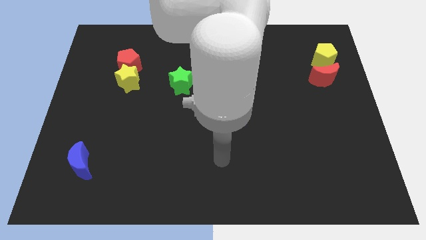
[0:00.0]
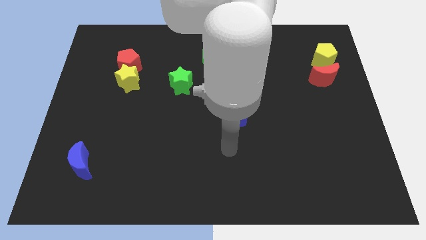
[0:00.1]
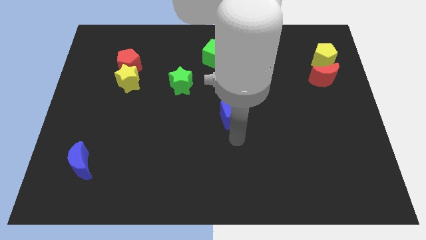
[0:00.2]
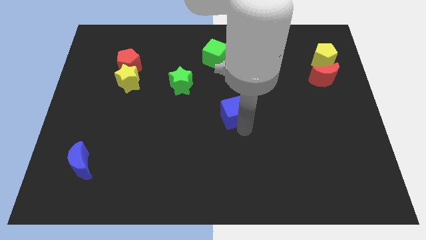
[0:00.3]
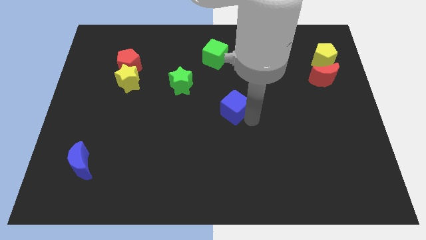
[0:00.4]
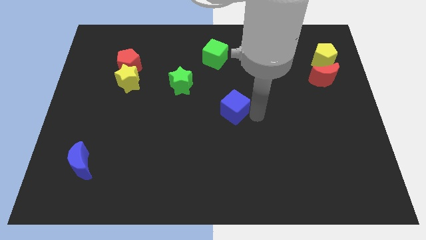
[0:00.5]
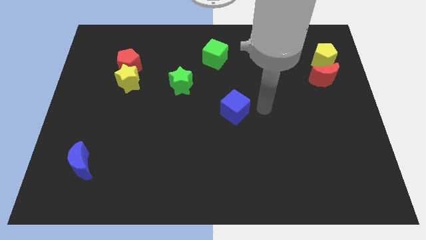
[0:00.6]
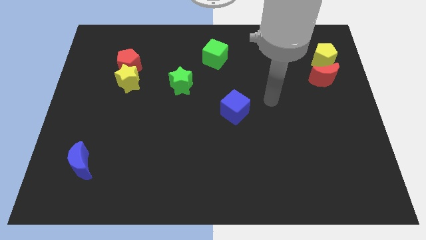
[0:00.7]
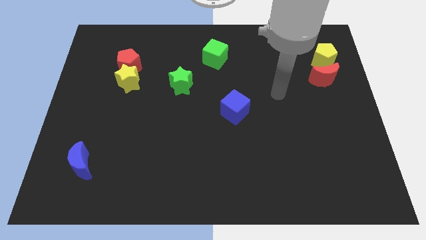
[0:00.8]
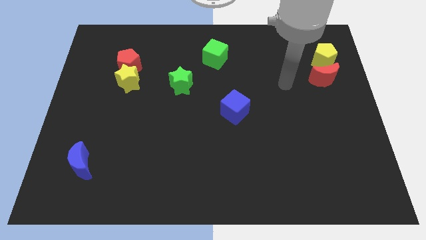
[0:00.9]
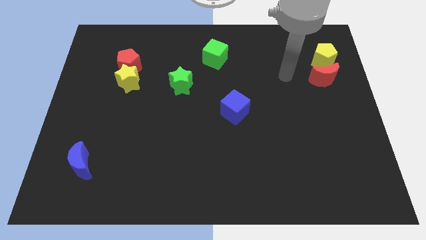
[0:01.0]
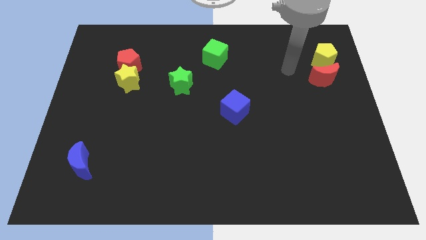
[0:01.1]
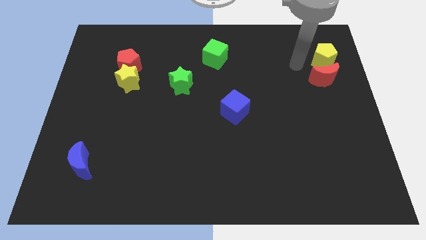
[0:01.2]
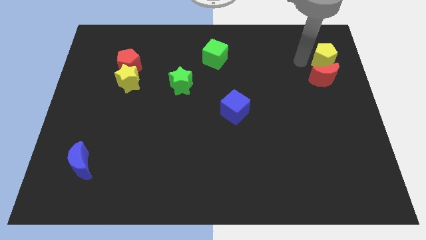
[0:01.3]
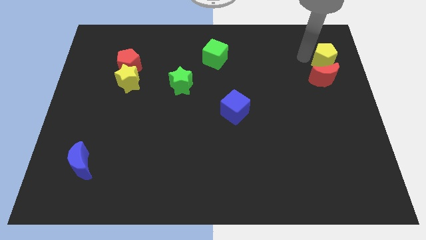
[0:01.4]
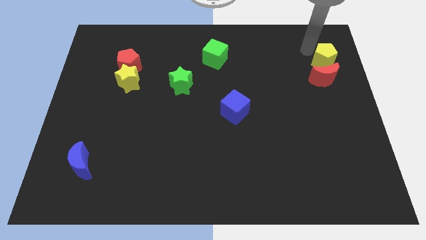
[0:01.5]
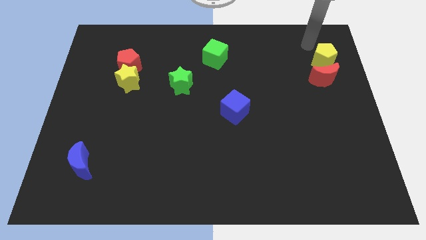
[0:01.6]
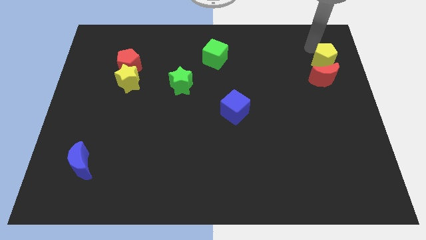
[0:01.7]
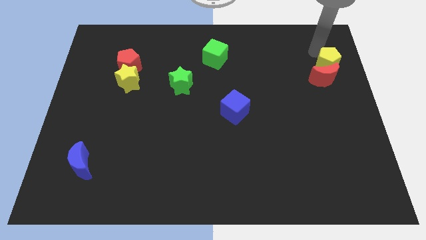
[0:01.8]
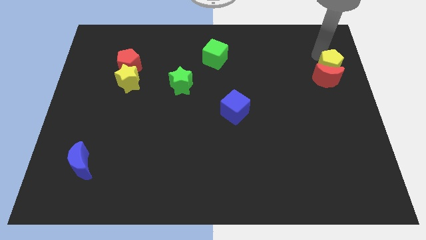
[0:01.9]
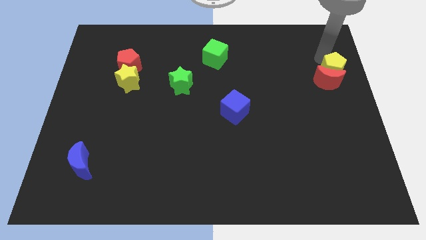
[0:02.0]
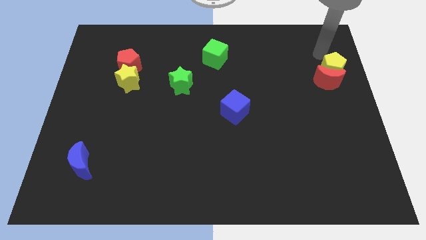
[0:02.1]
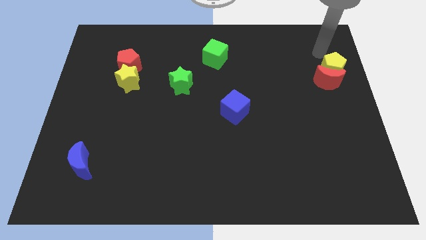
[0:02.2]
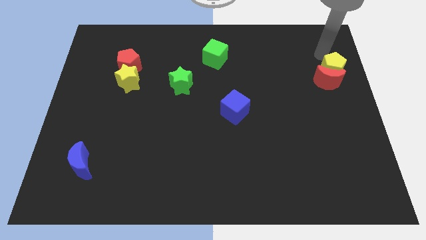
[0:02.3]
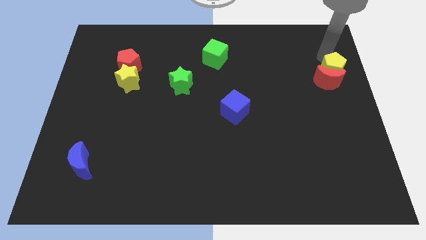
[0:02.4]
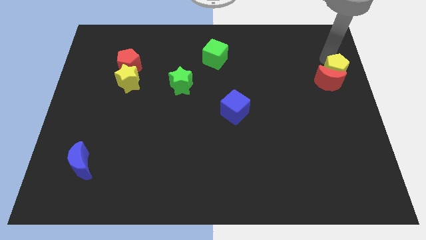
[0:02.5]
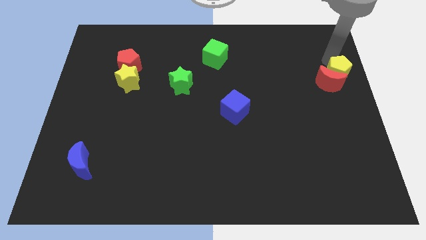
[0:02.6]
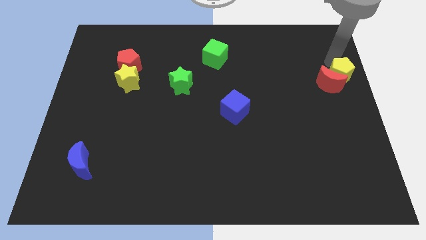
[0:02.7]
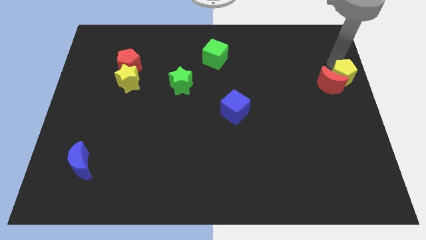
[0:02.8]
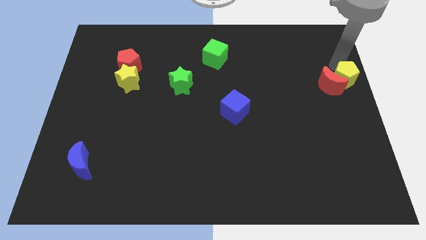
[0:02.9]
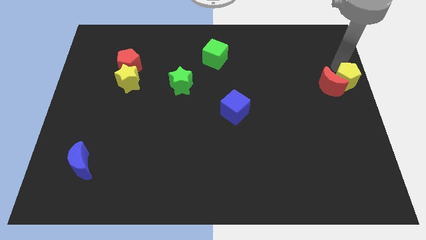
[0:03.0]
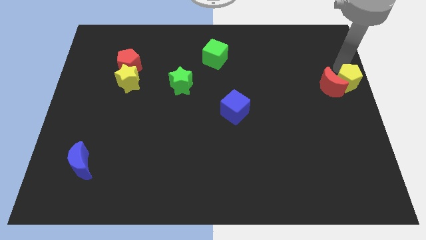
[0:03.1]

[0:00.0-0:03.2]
slightly push the yellow pentagon down

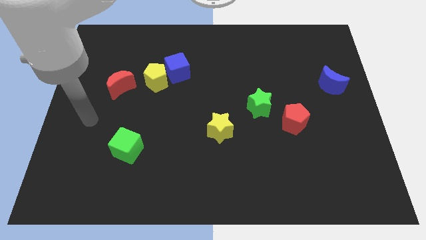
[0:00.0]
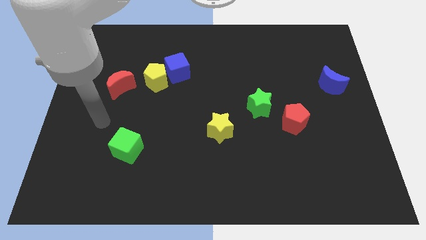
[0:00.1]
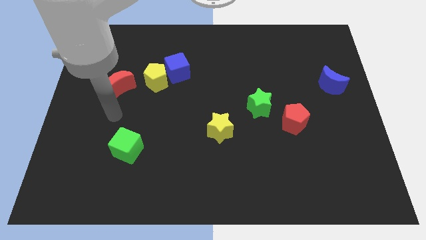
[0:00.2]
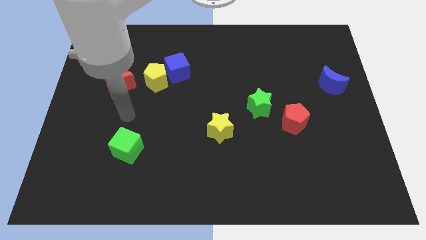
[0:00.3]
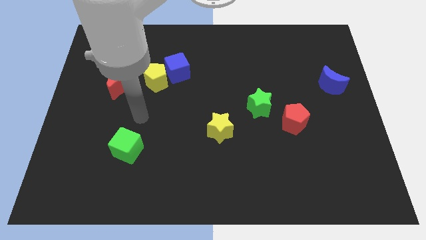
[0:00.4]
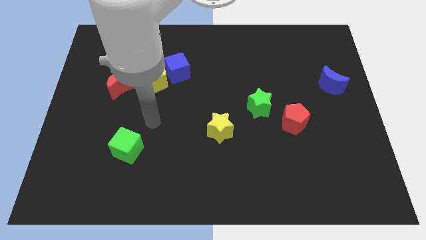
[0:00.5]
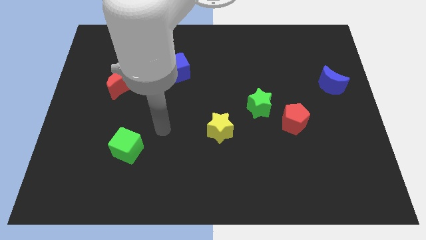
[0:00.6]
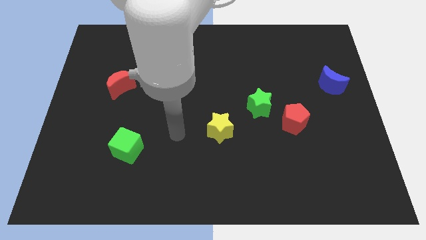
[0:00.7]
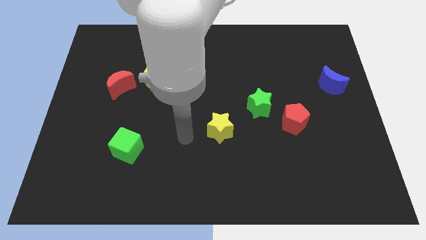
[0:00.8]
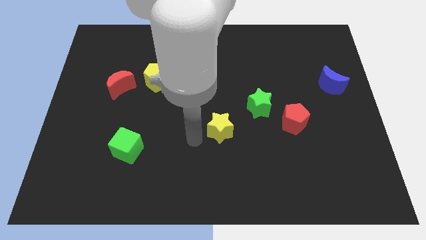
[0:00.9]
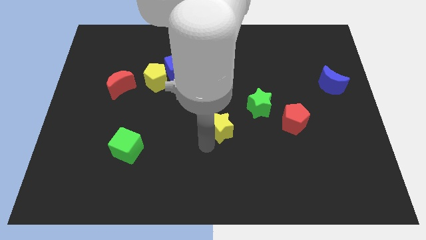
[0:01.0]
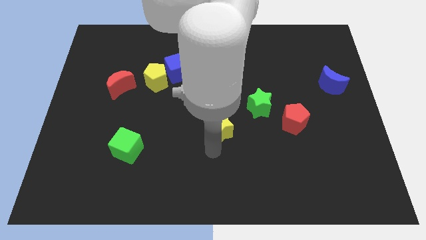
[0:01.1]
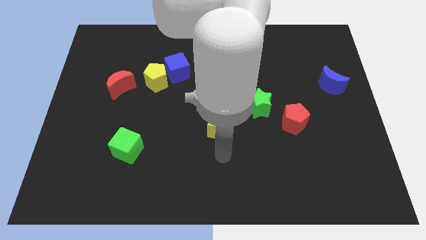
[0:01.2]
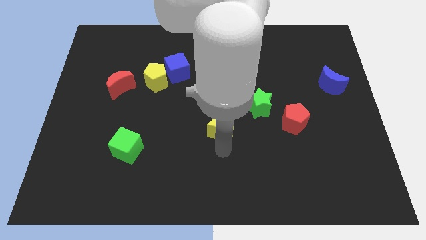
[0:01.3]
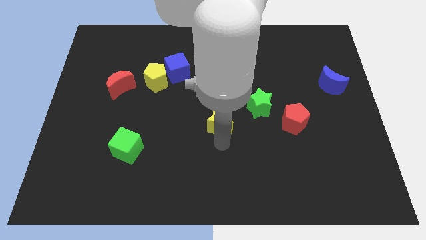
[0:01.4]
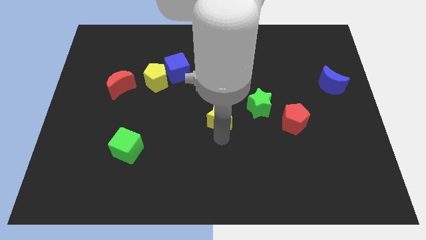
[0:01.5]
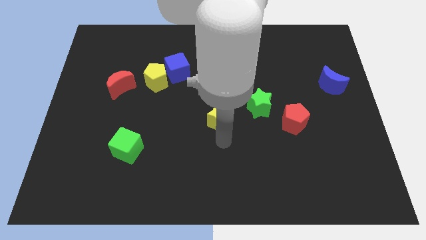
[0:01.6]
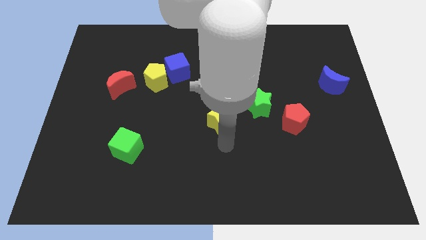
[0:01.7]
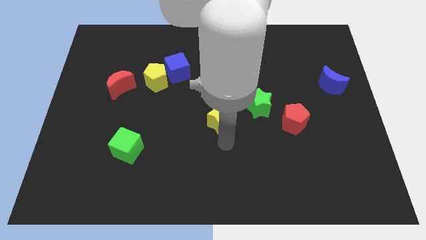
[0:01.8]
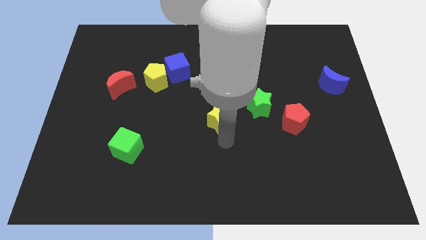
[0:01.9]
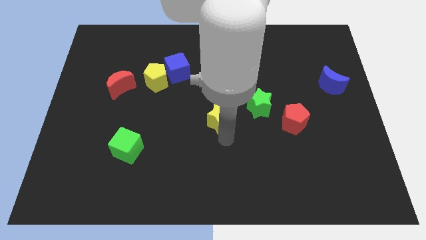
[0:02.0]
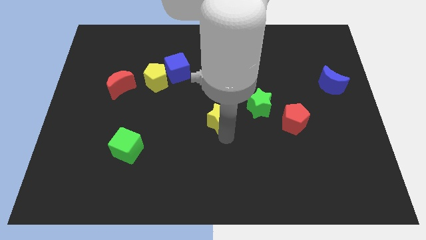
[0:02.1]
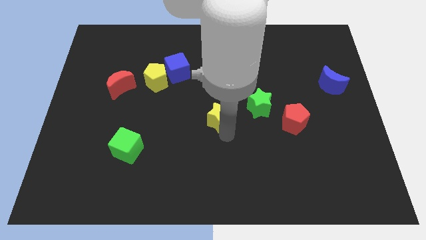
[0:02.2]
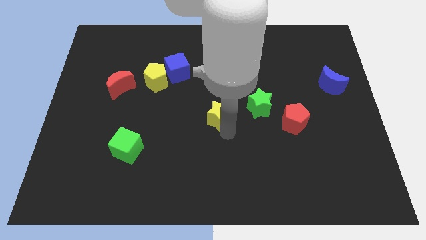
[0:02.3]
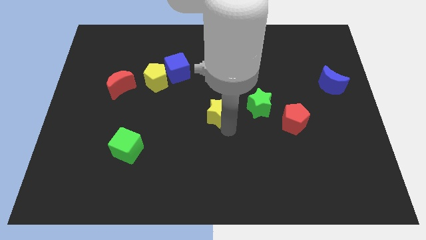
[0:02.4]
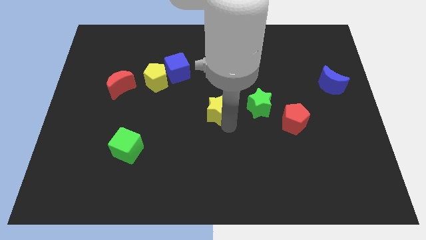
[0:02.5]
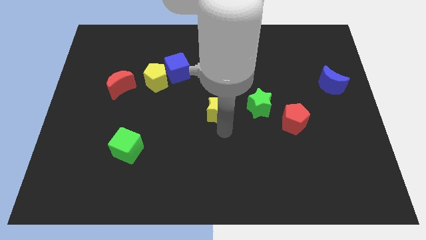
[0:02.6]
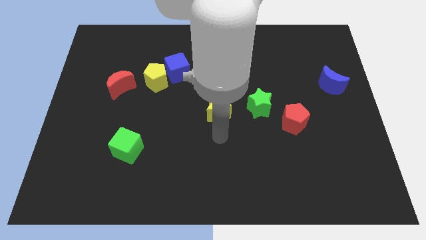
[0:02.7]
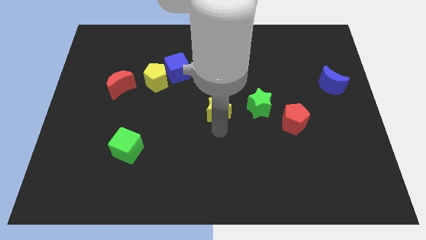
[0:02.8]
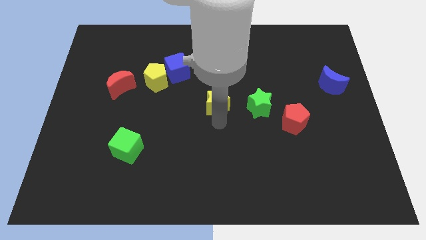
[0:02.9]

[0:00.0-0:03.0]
move the yellow star up slightly

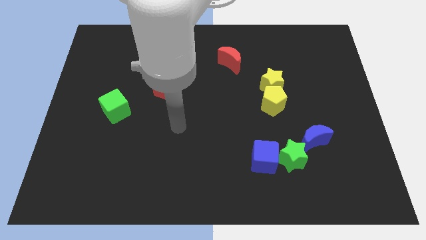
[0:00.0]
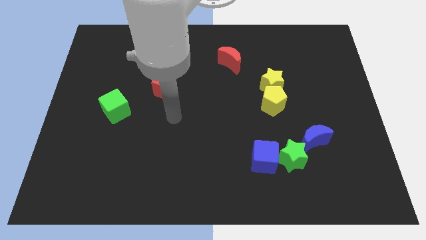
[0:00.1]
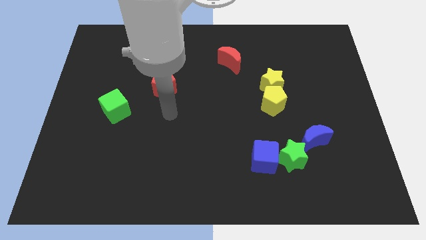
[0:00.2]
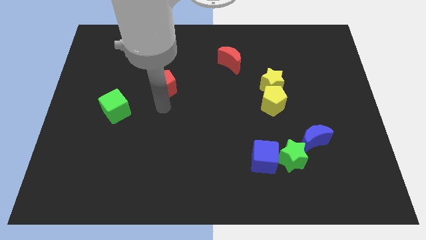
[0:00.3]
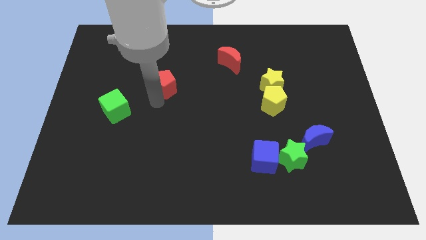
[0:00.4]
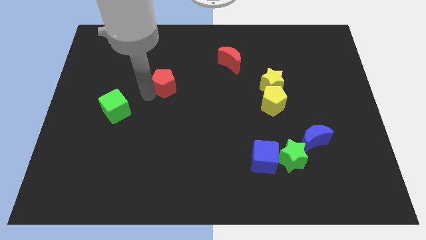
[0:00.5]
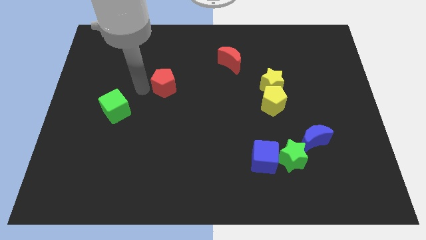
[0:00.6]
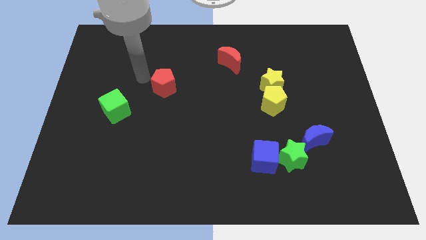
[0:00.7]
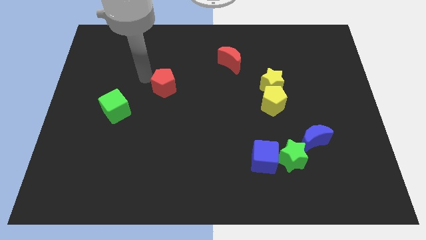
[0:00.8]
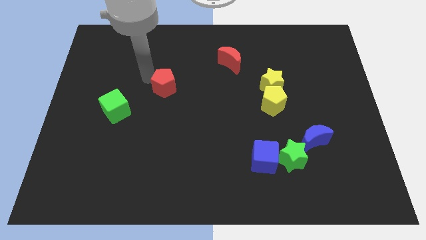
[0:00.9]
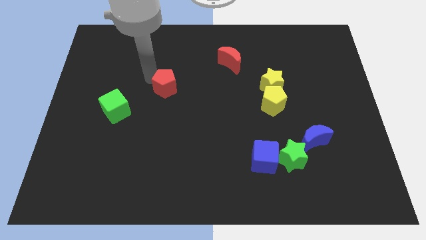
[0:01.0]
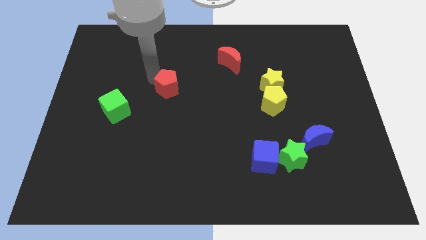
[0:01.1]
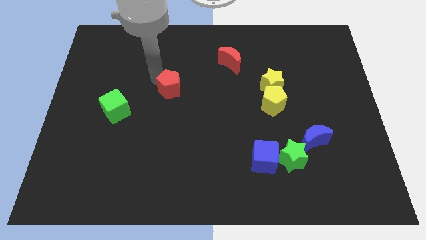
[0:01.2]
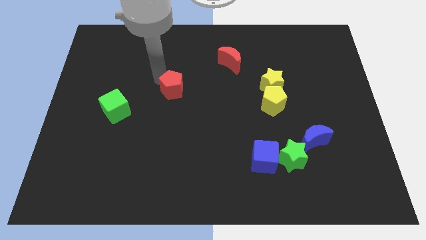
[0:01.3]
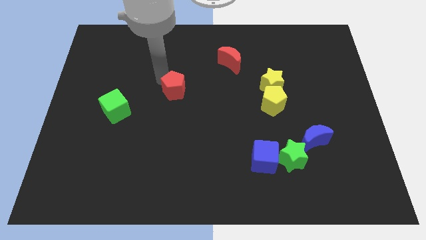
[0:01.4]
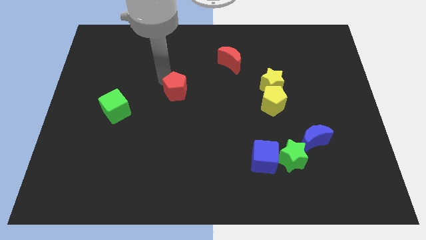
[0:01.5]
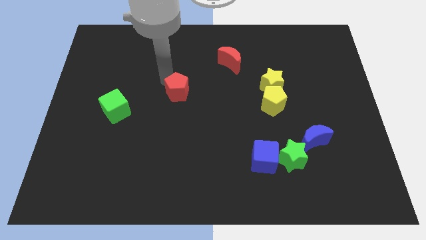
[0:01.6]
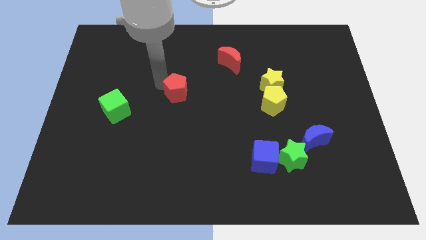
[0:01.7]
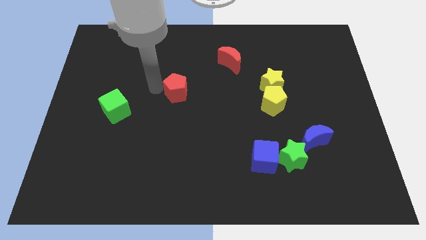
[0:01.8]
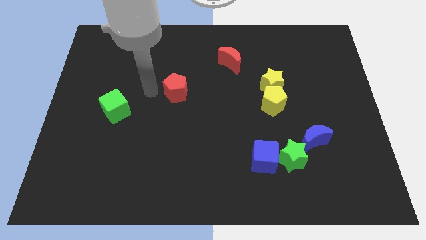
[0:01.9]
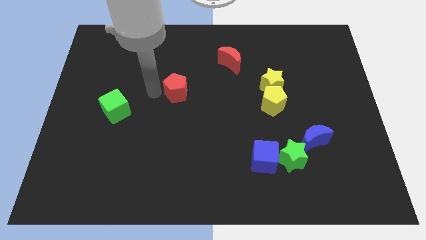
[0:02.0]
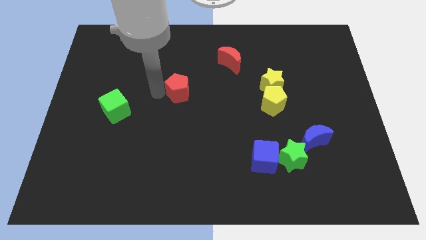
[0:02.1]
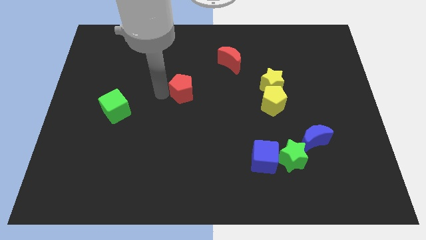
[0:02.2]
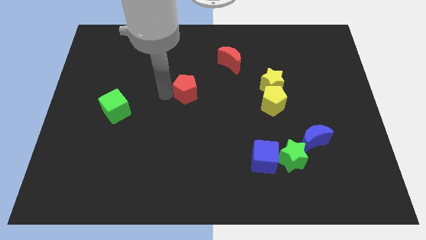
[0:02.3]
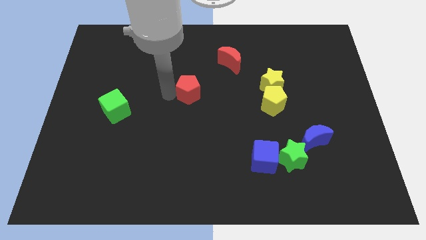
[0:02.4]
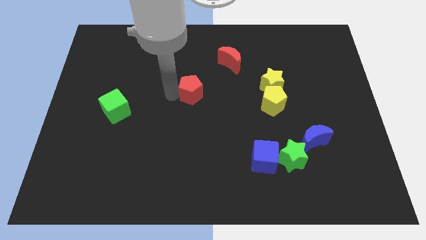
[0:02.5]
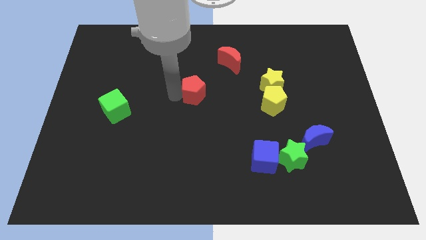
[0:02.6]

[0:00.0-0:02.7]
slightly move the red pentagon right
